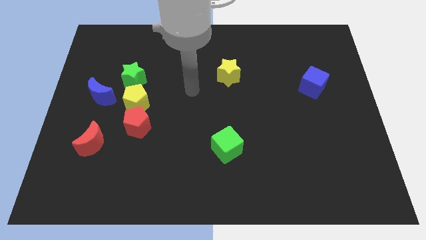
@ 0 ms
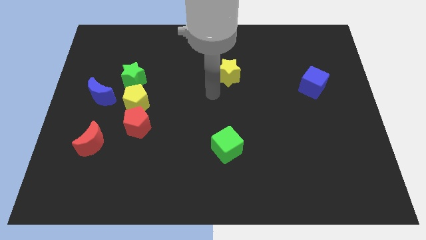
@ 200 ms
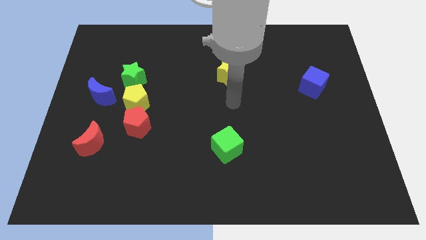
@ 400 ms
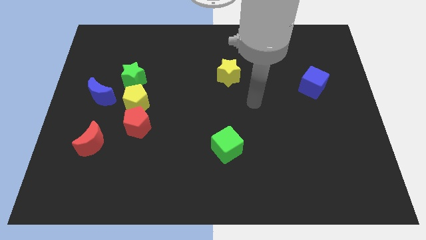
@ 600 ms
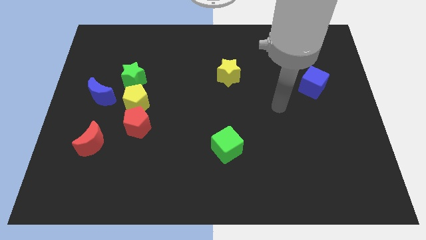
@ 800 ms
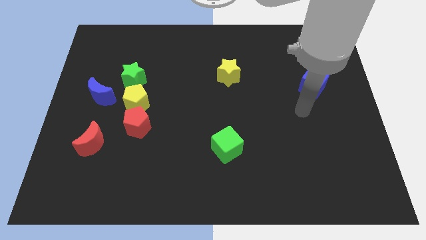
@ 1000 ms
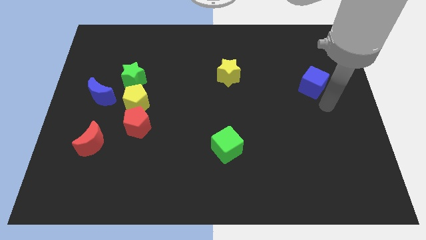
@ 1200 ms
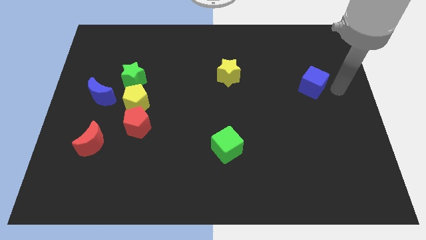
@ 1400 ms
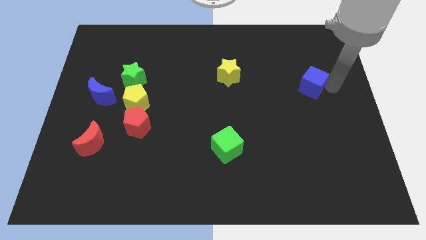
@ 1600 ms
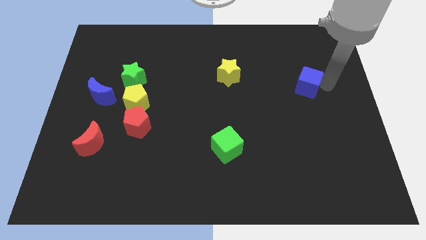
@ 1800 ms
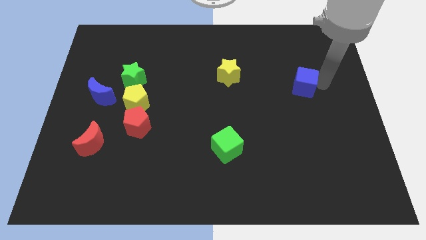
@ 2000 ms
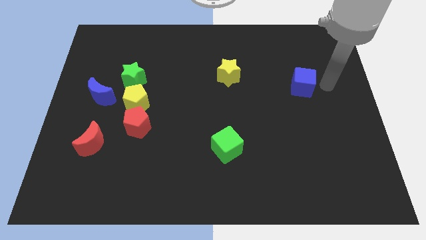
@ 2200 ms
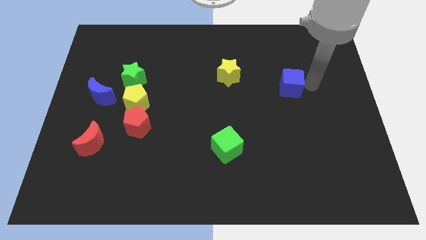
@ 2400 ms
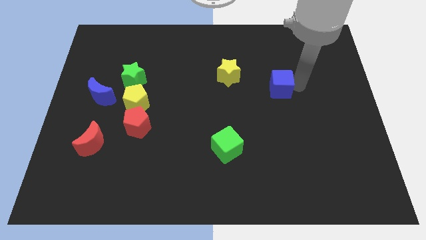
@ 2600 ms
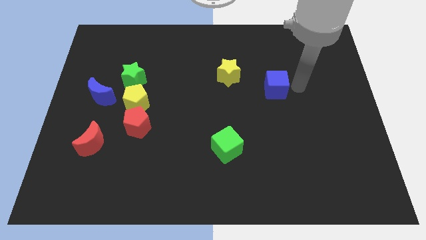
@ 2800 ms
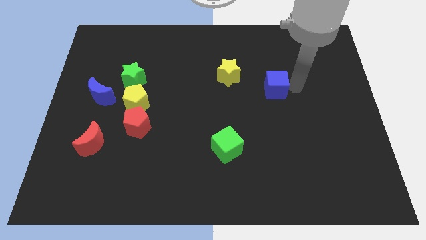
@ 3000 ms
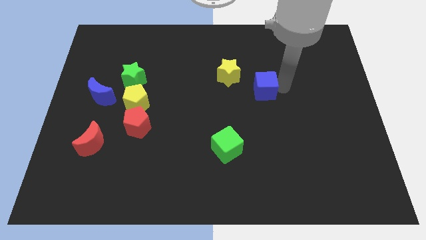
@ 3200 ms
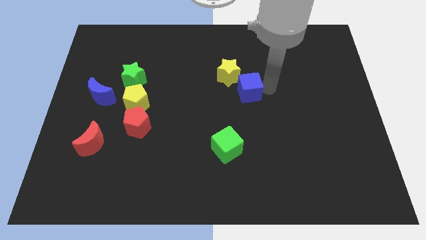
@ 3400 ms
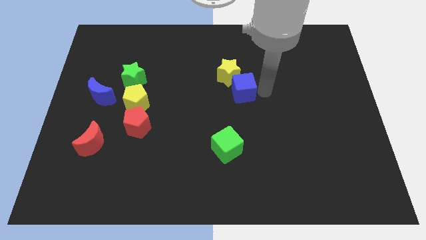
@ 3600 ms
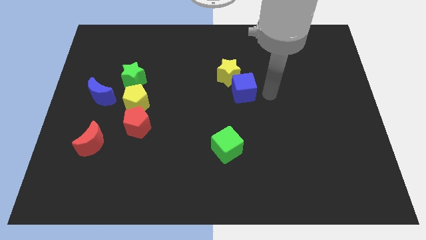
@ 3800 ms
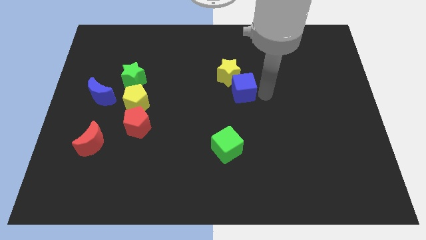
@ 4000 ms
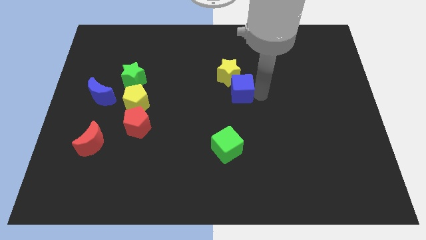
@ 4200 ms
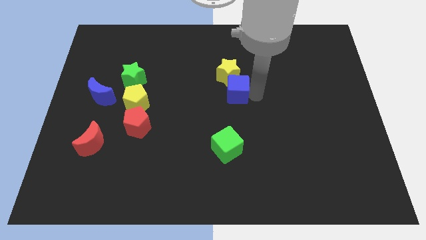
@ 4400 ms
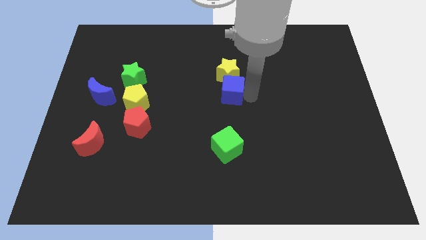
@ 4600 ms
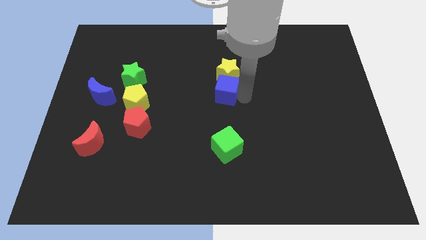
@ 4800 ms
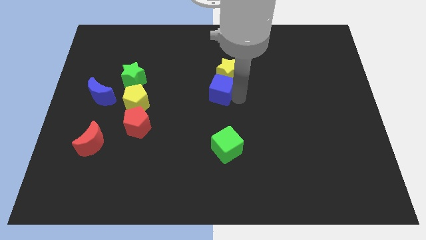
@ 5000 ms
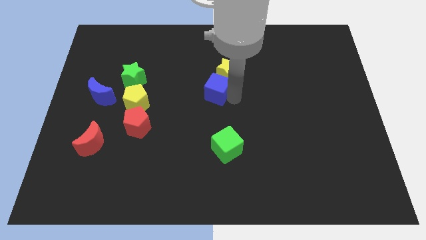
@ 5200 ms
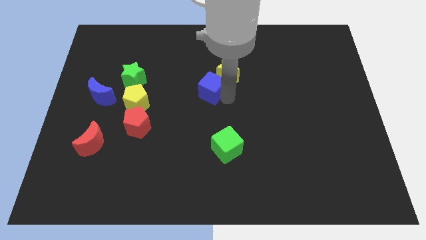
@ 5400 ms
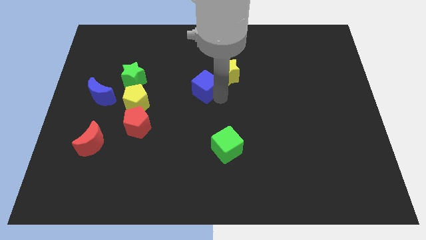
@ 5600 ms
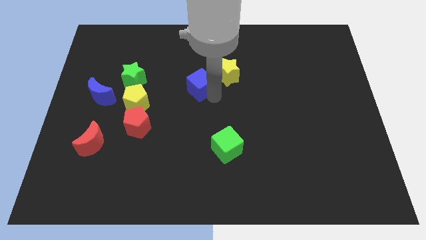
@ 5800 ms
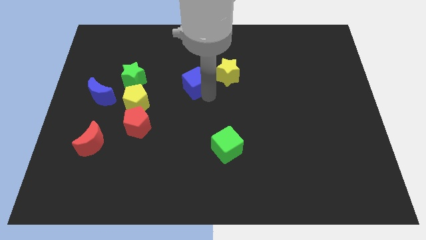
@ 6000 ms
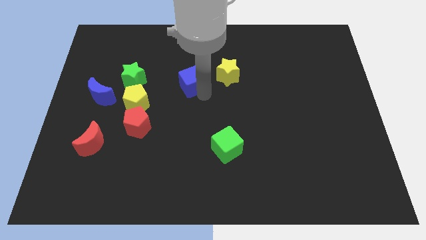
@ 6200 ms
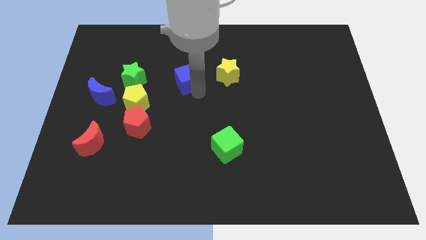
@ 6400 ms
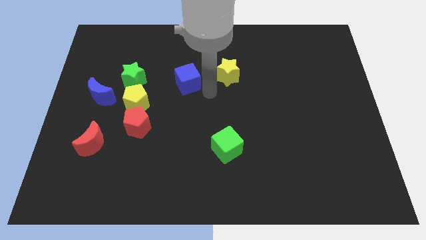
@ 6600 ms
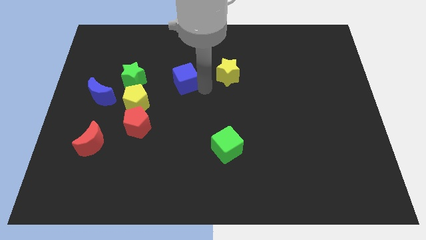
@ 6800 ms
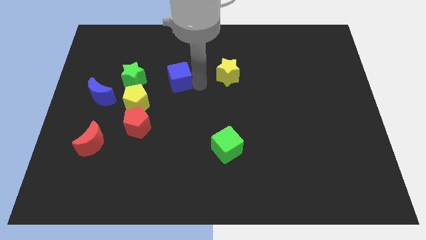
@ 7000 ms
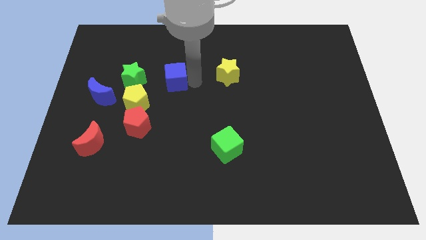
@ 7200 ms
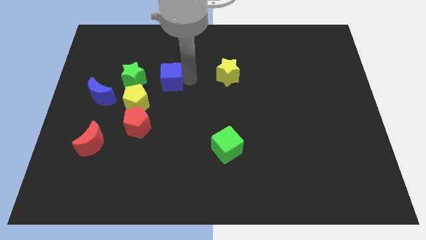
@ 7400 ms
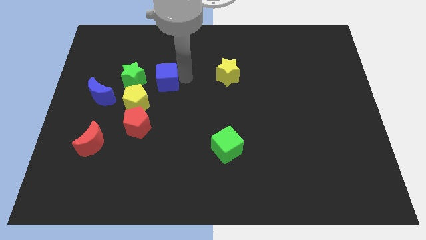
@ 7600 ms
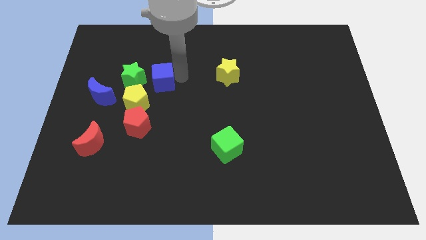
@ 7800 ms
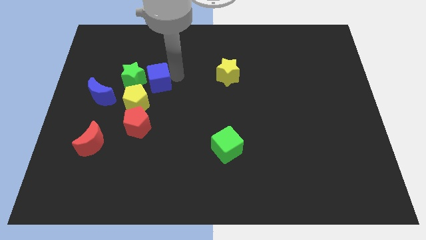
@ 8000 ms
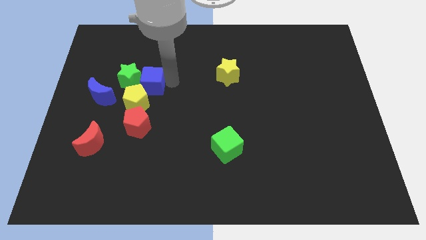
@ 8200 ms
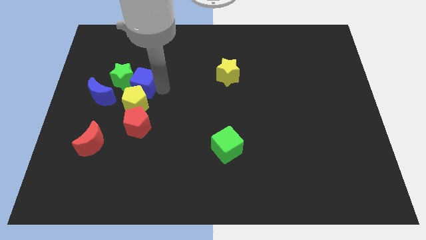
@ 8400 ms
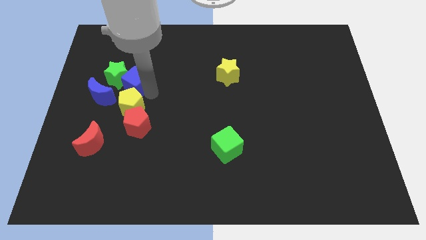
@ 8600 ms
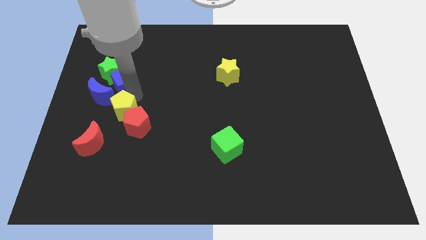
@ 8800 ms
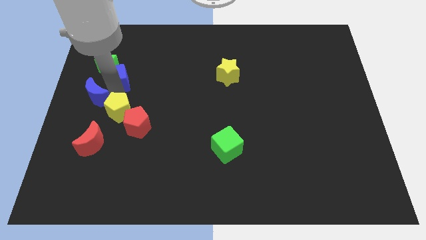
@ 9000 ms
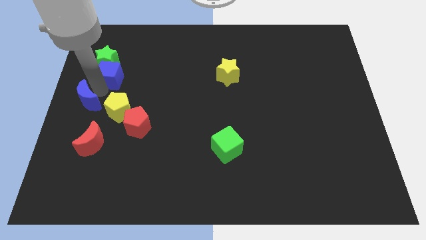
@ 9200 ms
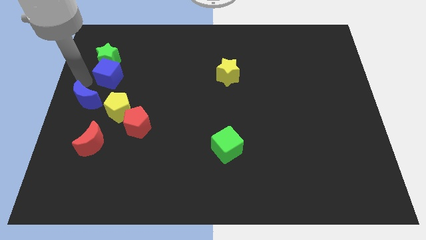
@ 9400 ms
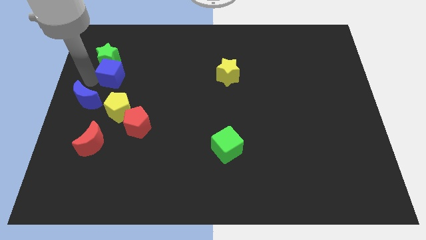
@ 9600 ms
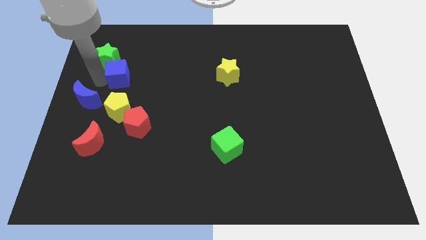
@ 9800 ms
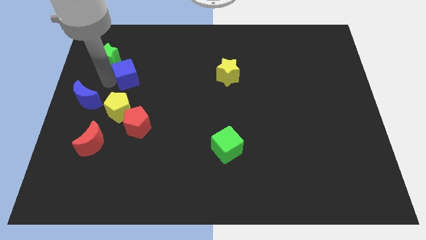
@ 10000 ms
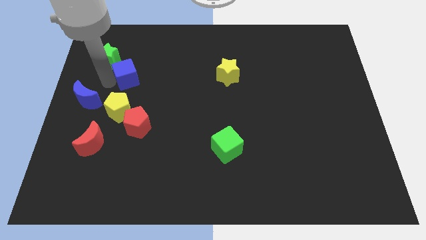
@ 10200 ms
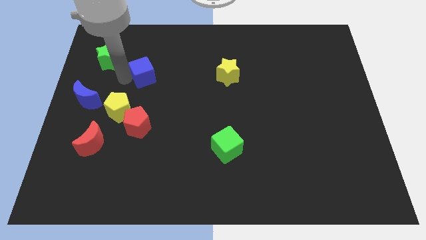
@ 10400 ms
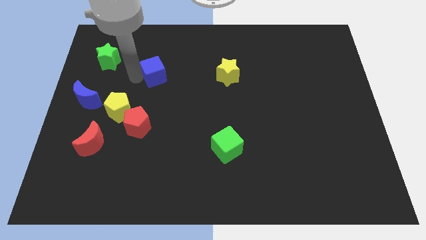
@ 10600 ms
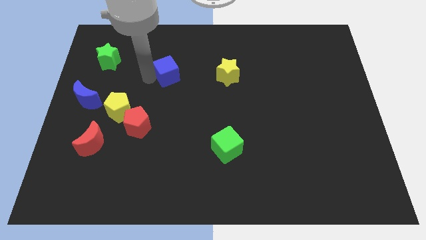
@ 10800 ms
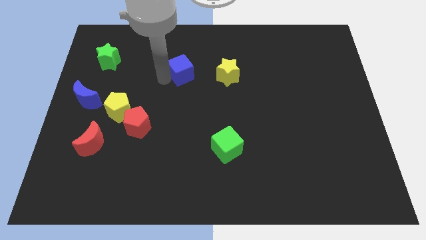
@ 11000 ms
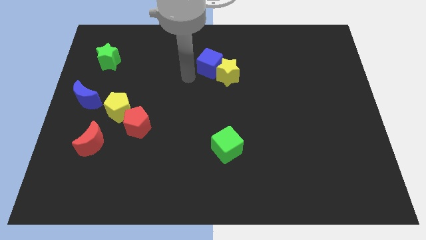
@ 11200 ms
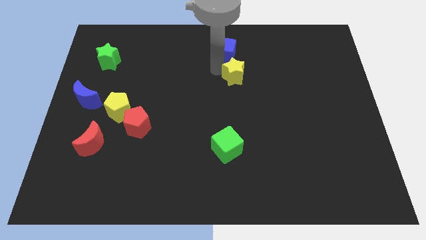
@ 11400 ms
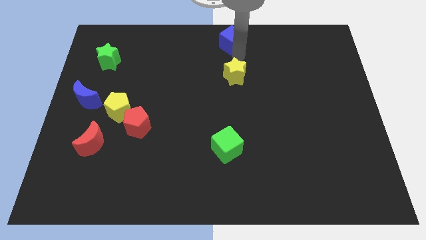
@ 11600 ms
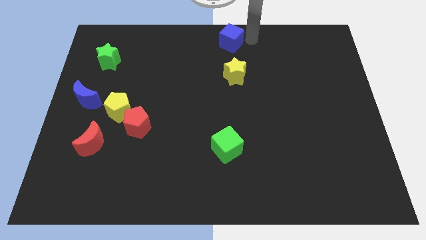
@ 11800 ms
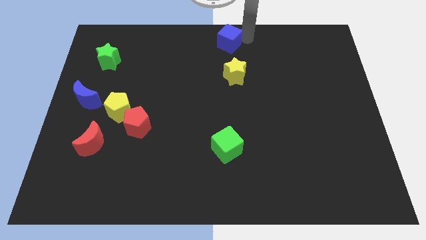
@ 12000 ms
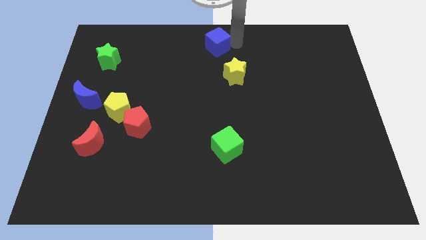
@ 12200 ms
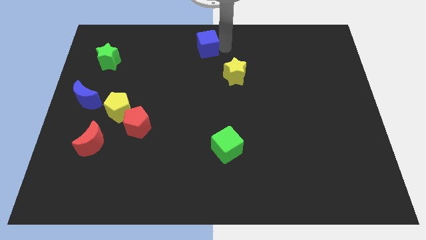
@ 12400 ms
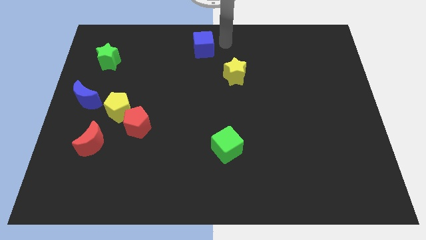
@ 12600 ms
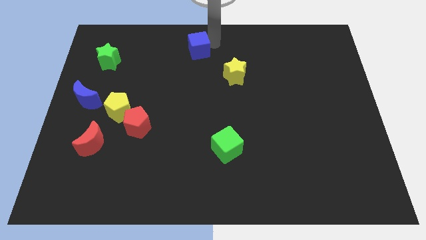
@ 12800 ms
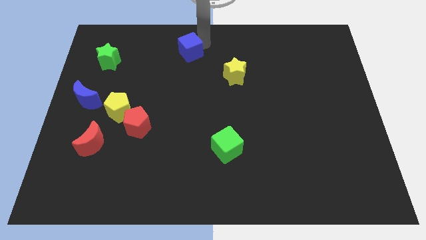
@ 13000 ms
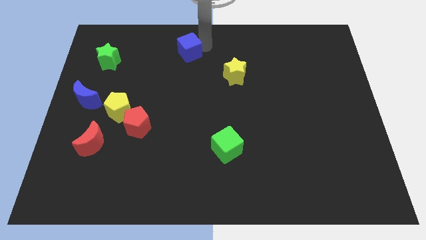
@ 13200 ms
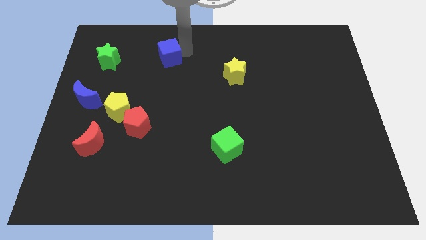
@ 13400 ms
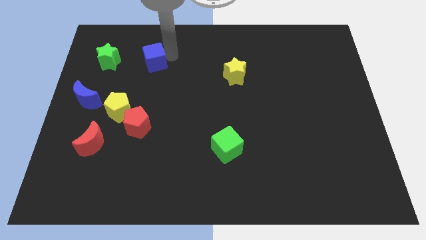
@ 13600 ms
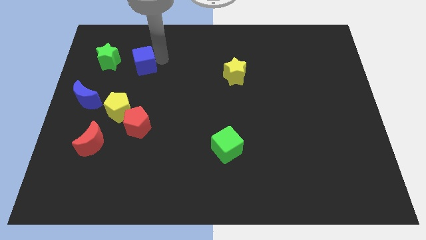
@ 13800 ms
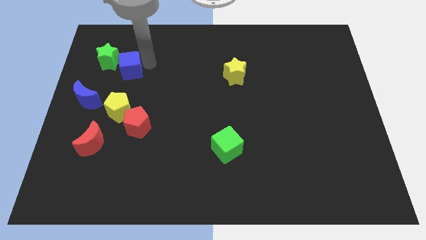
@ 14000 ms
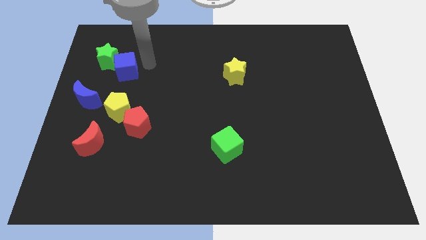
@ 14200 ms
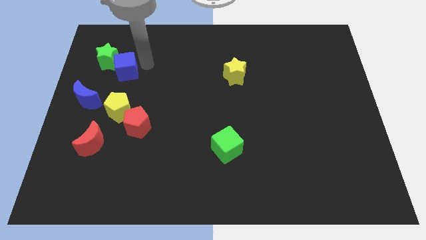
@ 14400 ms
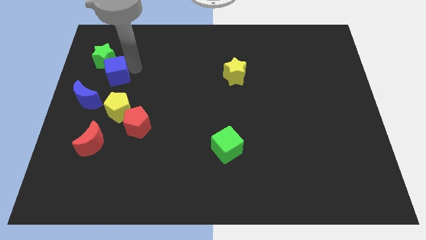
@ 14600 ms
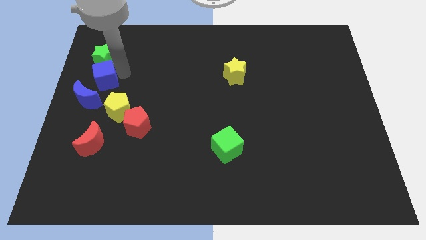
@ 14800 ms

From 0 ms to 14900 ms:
push the blue cube to the center left

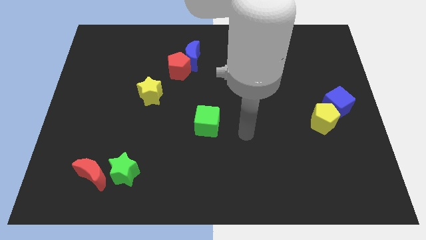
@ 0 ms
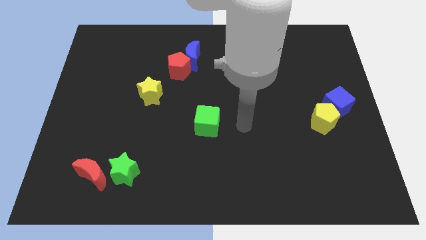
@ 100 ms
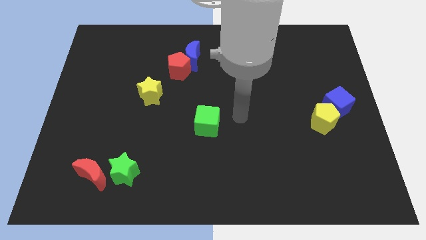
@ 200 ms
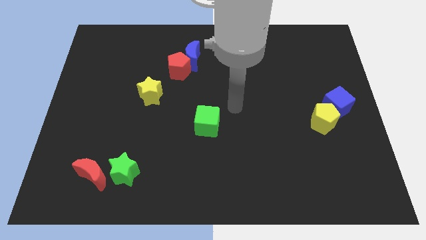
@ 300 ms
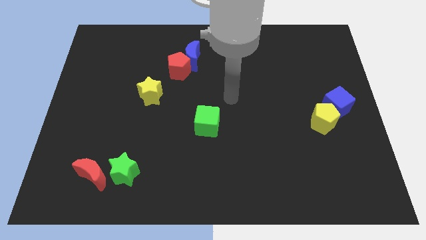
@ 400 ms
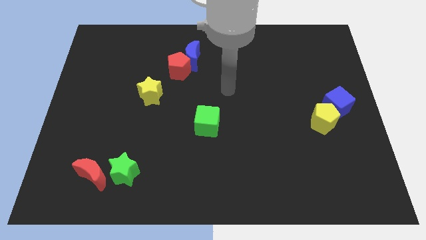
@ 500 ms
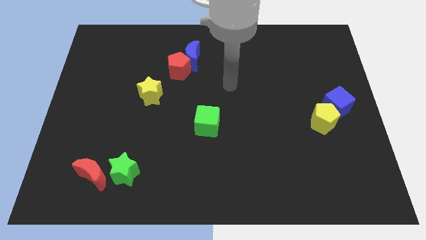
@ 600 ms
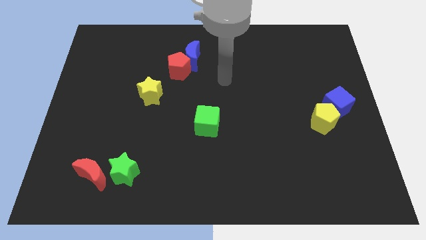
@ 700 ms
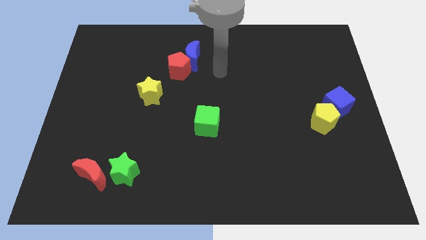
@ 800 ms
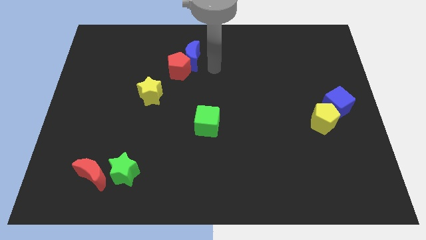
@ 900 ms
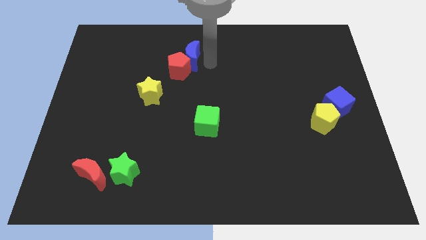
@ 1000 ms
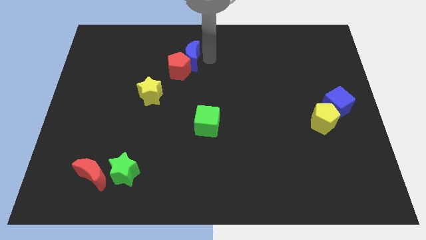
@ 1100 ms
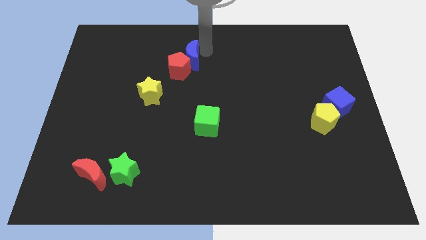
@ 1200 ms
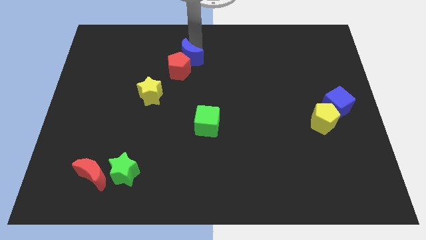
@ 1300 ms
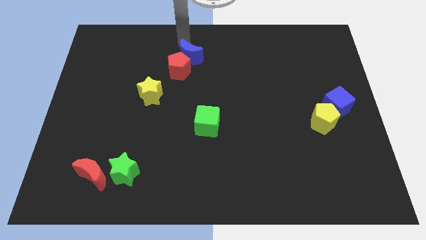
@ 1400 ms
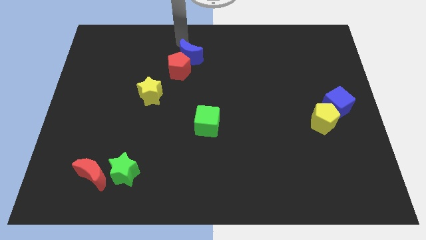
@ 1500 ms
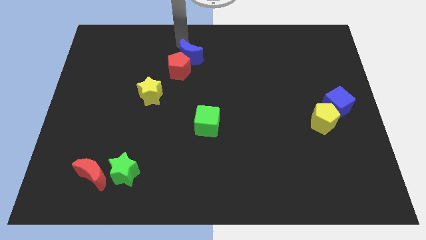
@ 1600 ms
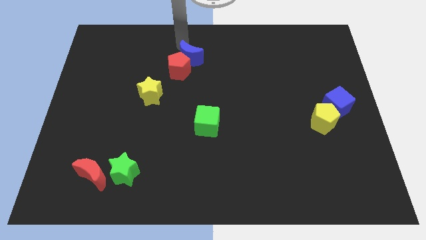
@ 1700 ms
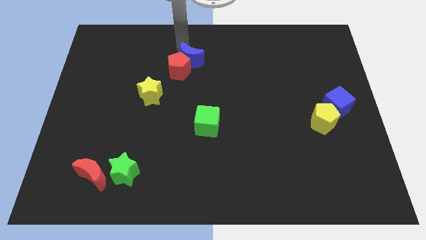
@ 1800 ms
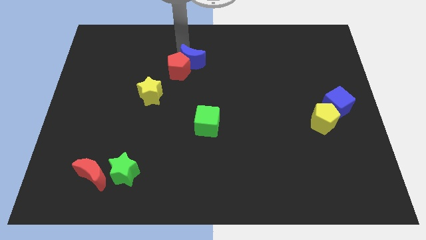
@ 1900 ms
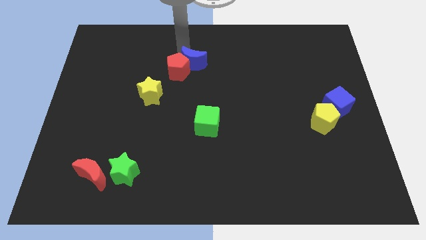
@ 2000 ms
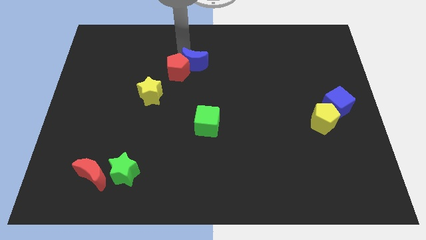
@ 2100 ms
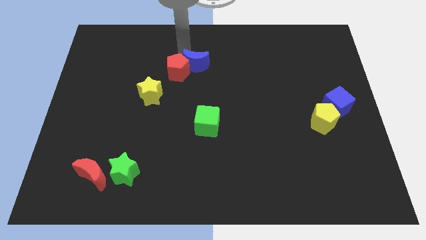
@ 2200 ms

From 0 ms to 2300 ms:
move the blue moon to the center
